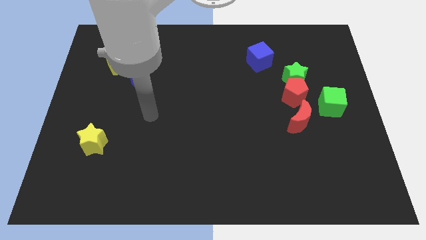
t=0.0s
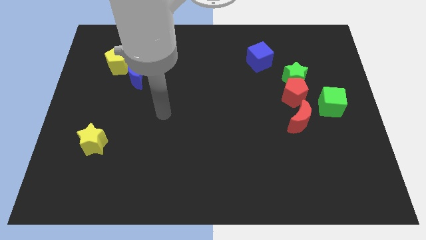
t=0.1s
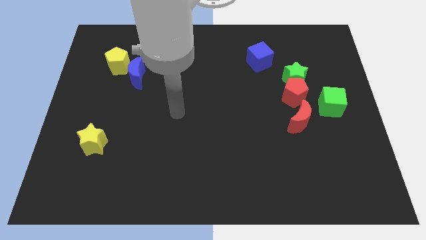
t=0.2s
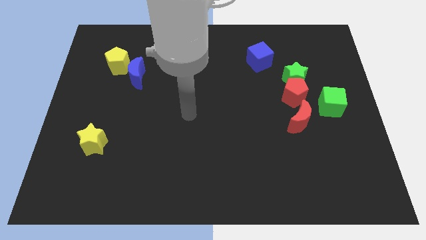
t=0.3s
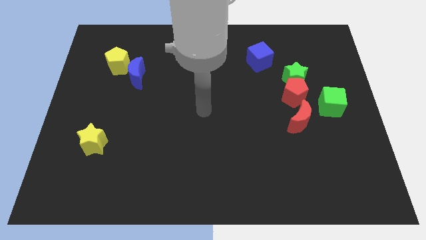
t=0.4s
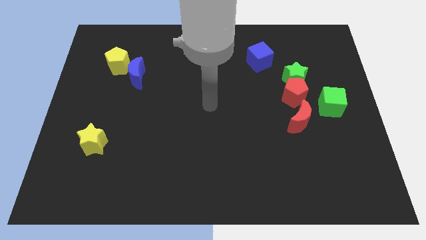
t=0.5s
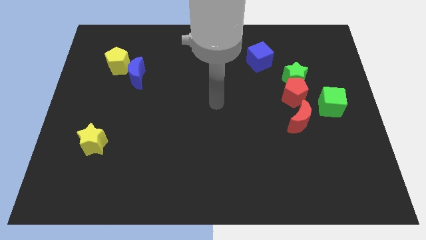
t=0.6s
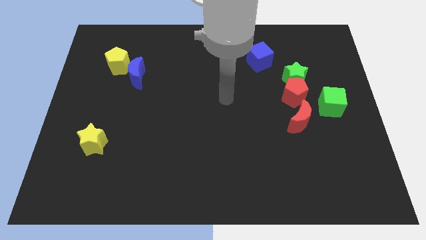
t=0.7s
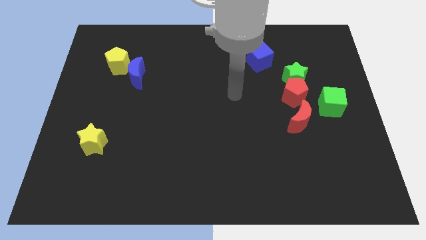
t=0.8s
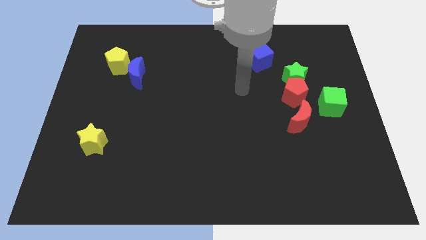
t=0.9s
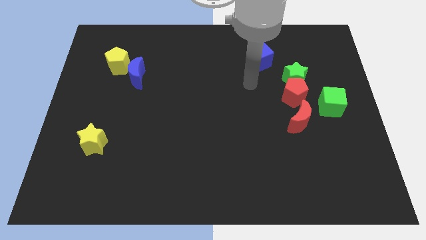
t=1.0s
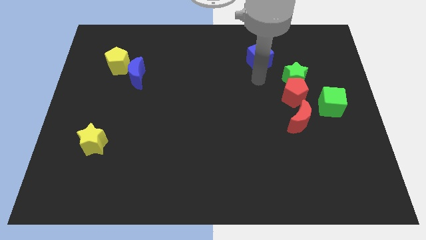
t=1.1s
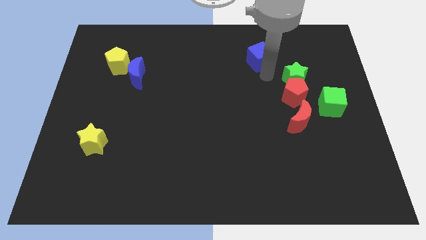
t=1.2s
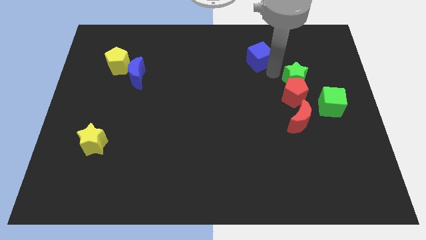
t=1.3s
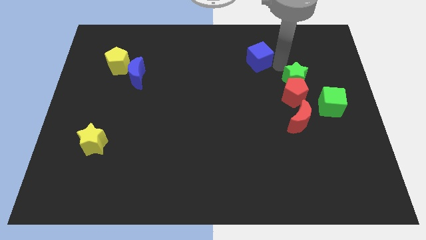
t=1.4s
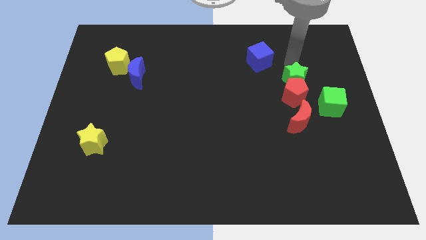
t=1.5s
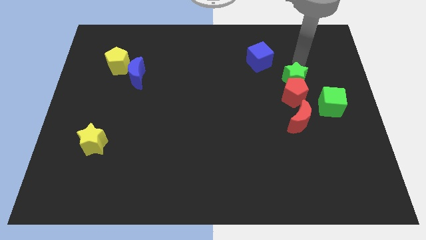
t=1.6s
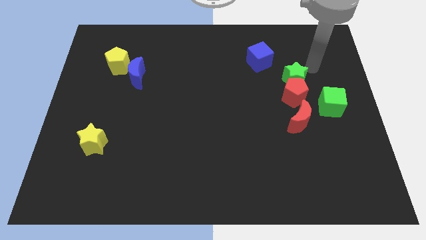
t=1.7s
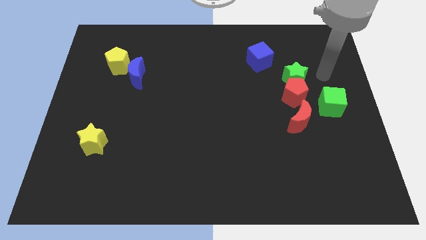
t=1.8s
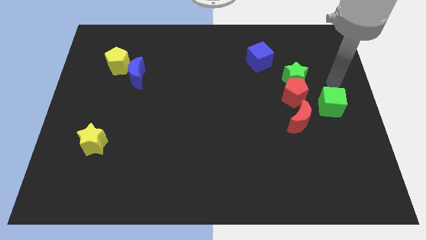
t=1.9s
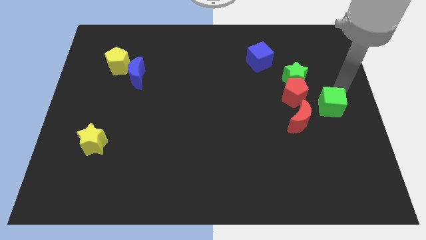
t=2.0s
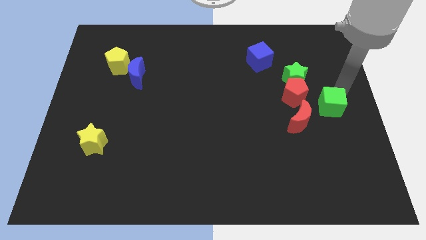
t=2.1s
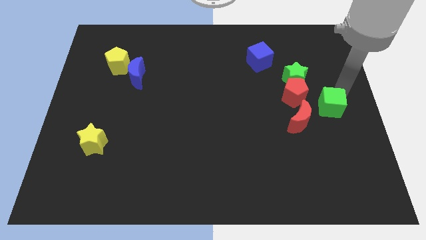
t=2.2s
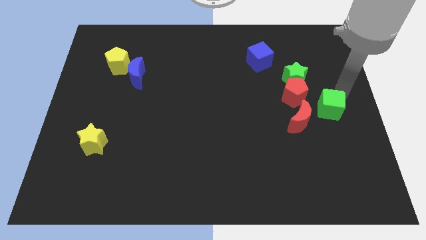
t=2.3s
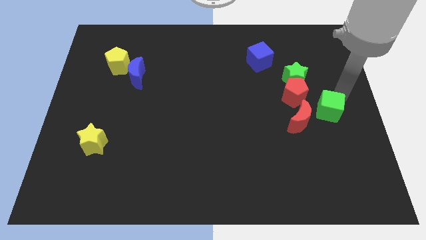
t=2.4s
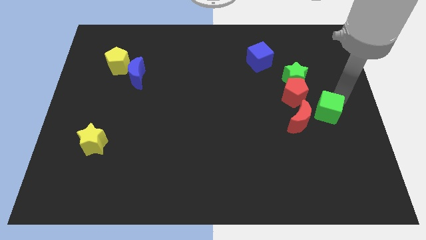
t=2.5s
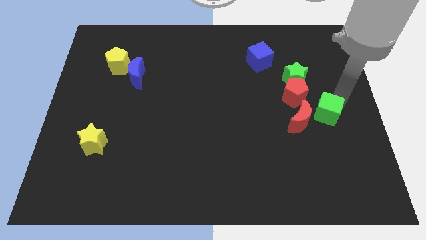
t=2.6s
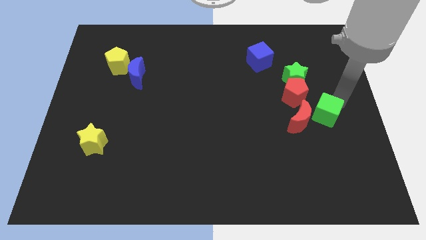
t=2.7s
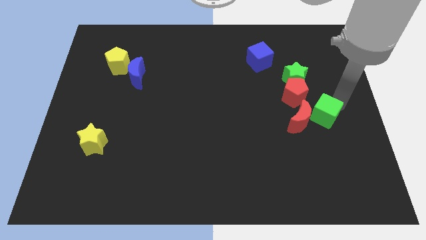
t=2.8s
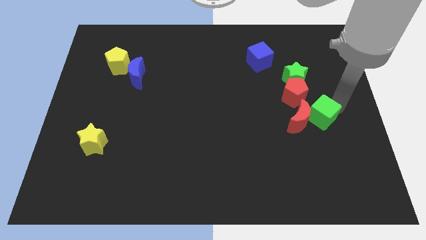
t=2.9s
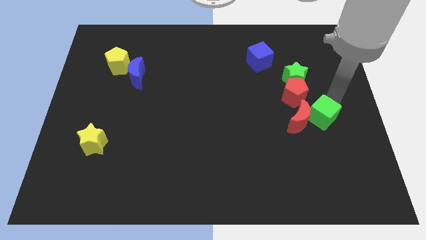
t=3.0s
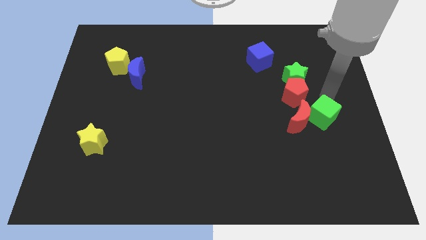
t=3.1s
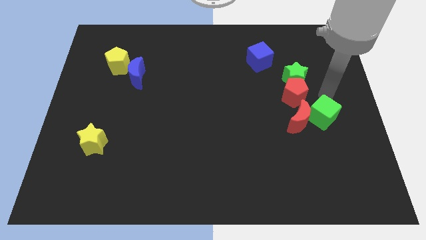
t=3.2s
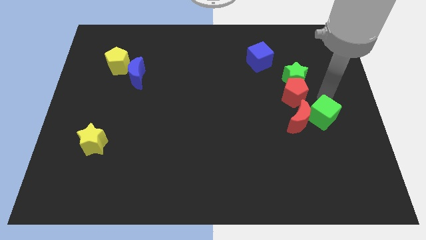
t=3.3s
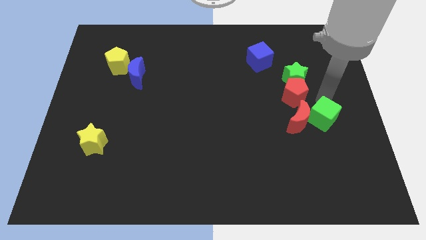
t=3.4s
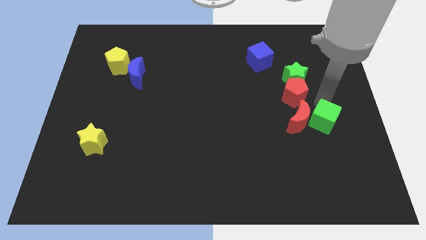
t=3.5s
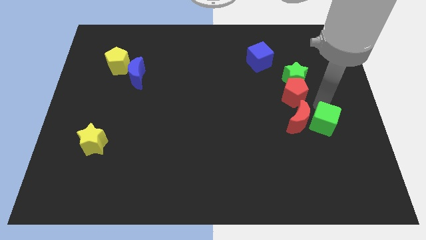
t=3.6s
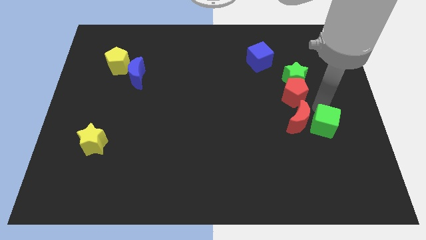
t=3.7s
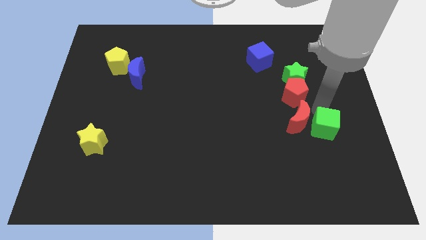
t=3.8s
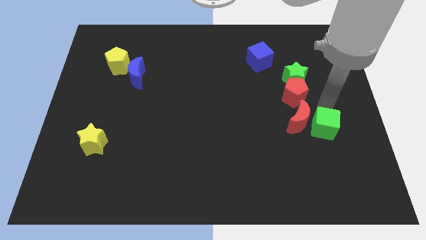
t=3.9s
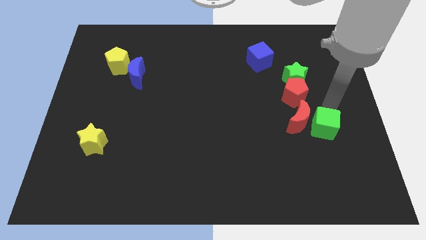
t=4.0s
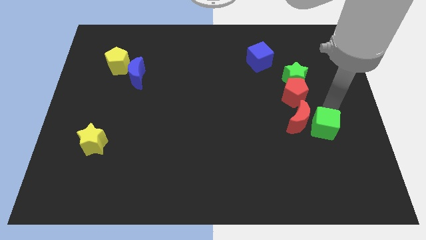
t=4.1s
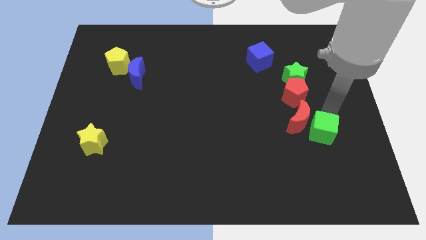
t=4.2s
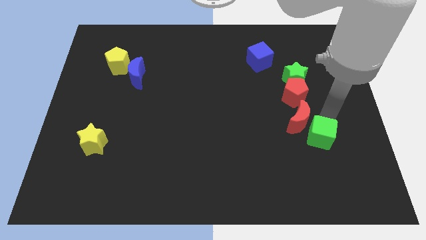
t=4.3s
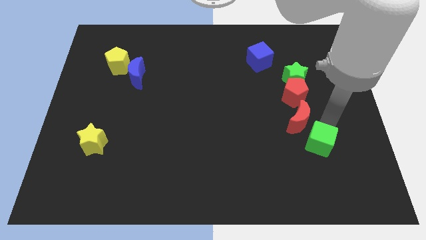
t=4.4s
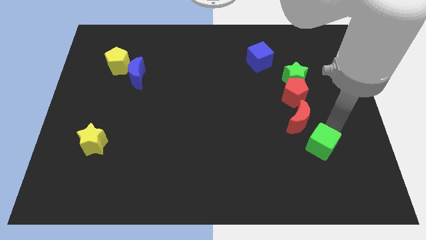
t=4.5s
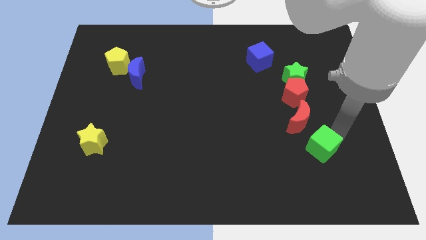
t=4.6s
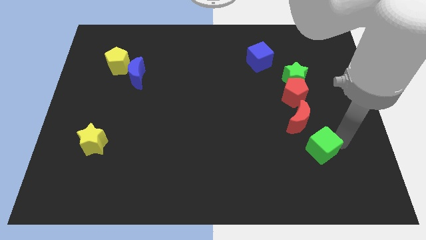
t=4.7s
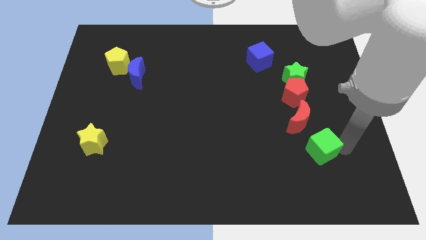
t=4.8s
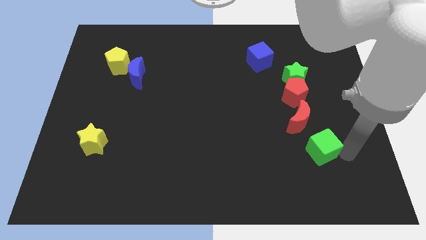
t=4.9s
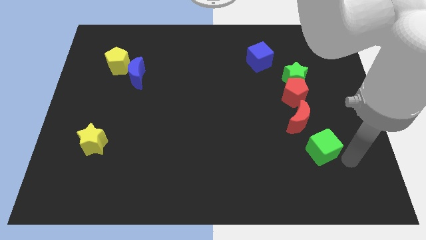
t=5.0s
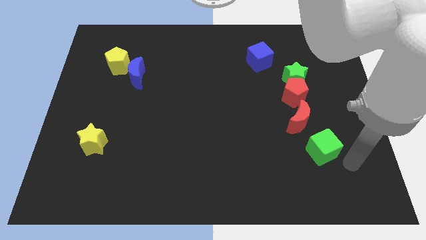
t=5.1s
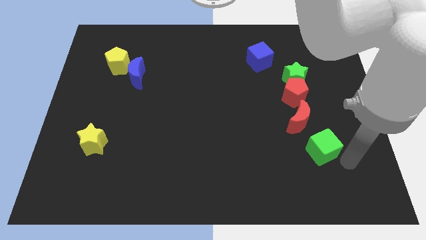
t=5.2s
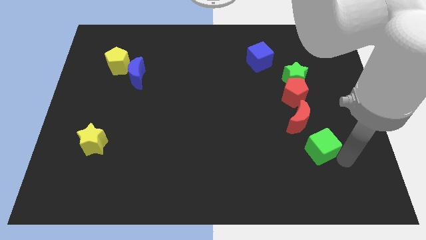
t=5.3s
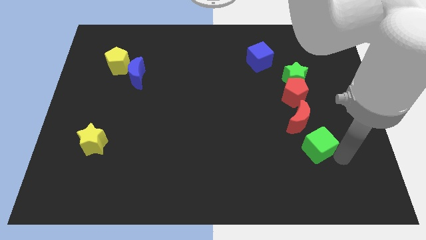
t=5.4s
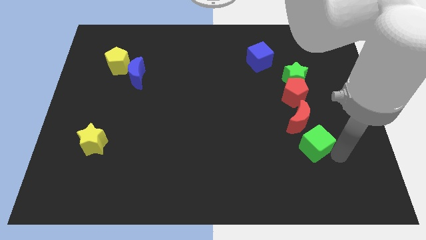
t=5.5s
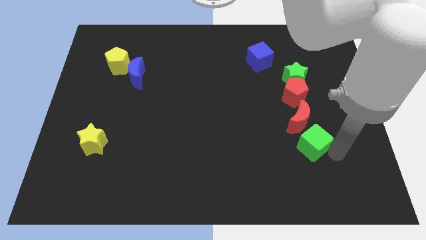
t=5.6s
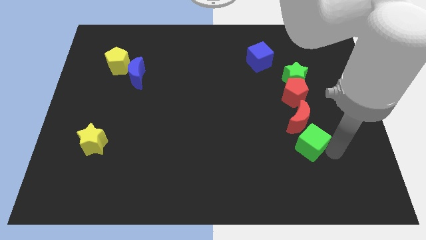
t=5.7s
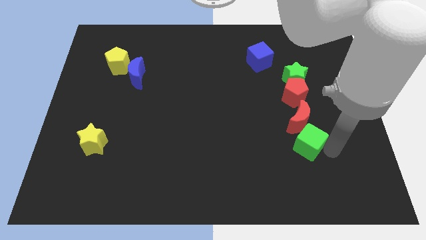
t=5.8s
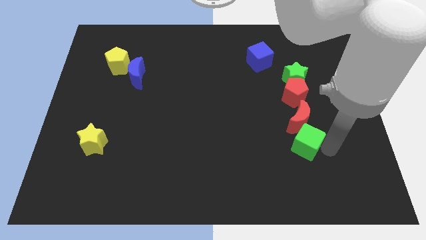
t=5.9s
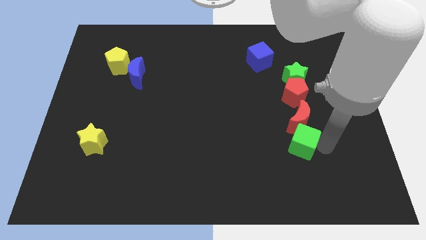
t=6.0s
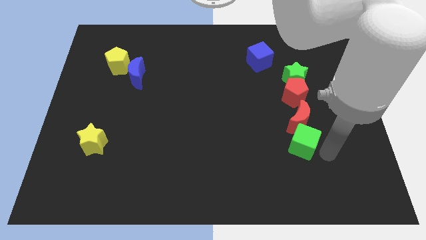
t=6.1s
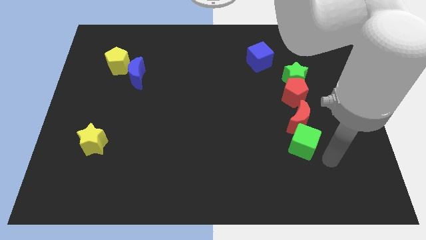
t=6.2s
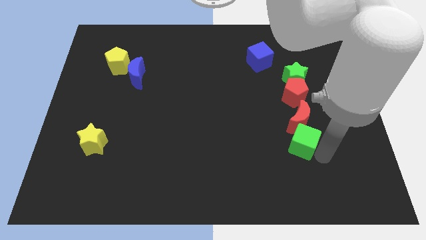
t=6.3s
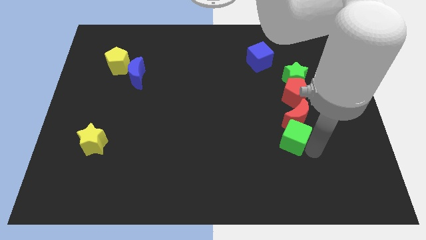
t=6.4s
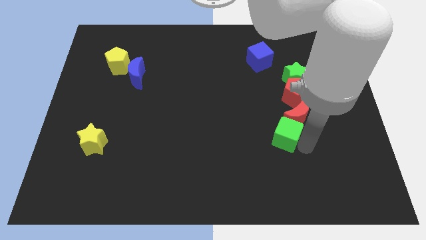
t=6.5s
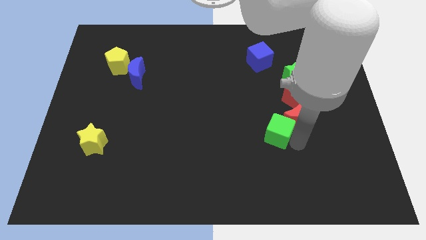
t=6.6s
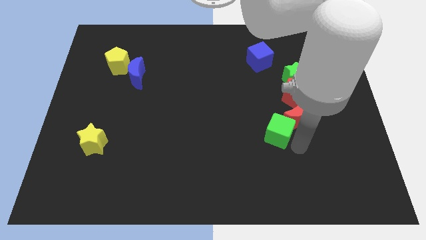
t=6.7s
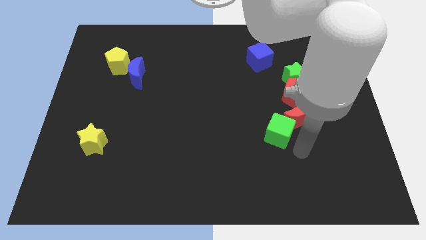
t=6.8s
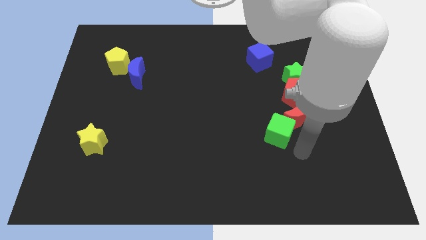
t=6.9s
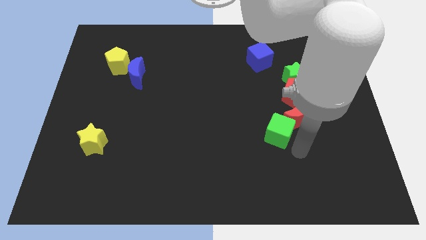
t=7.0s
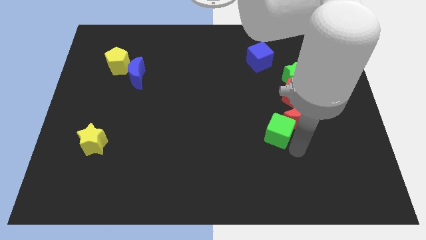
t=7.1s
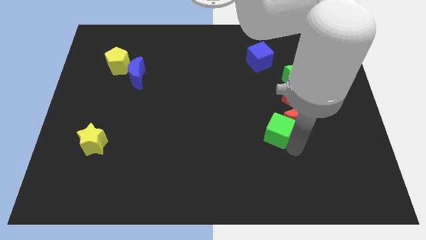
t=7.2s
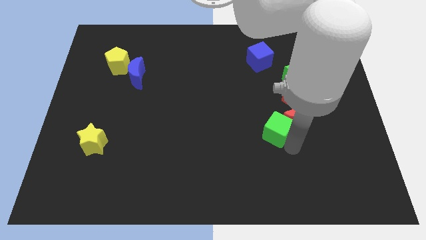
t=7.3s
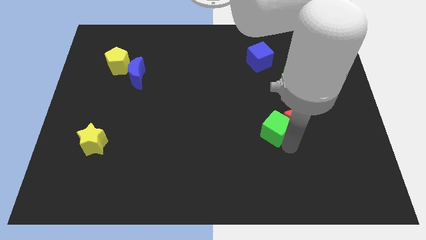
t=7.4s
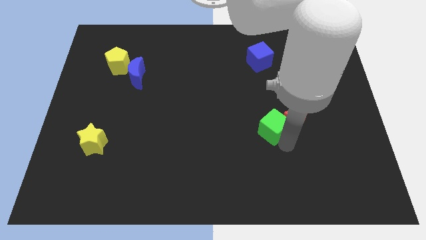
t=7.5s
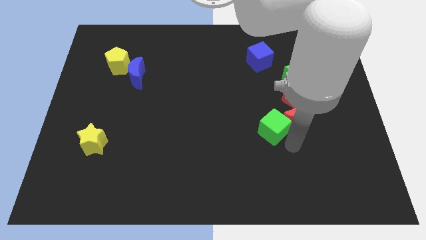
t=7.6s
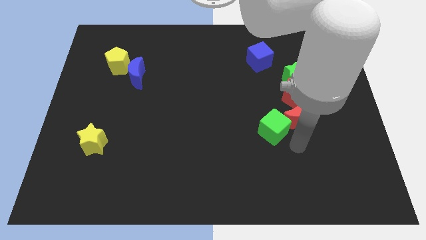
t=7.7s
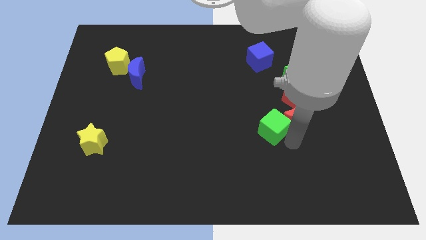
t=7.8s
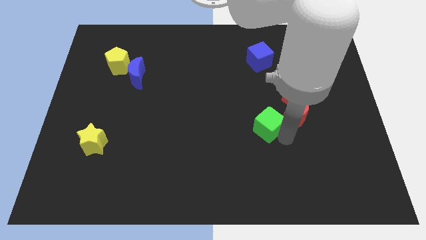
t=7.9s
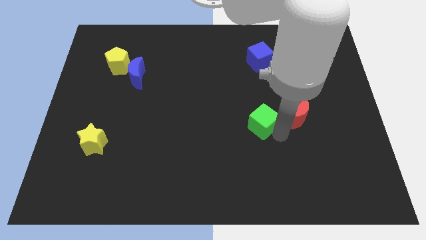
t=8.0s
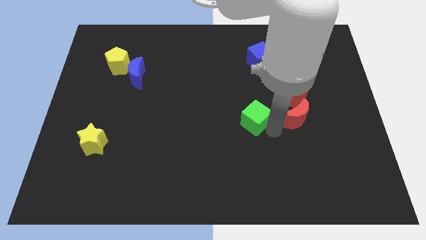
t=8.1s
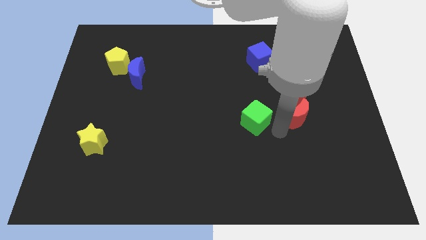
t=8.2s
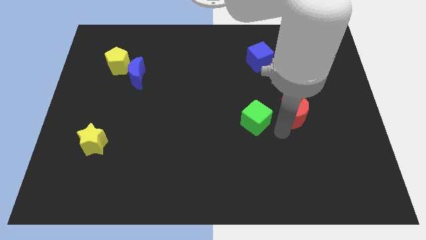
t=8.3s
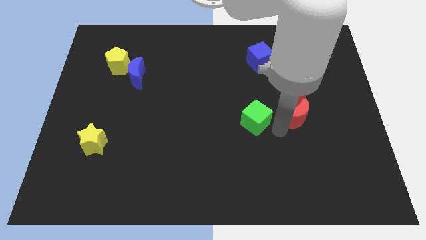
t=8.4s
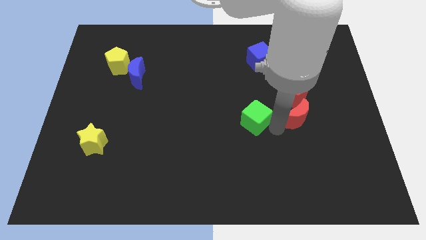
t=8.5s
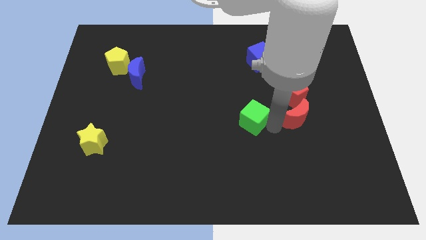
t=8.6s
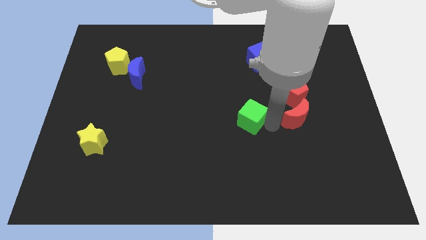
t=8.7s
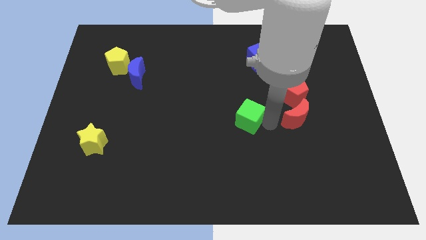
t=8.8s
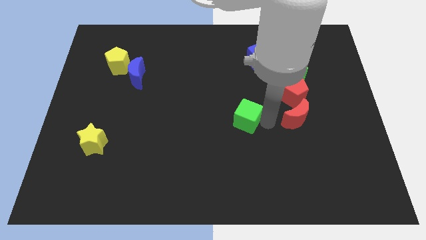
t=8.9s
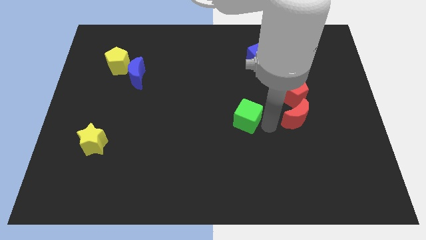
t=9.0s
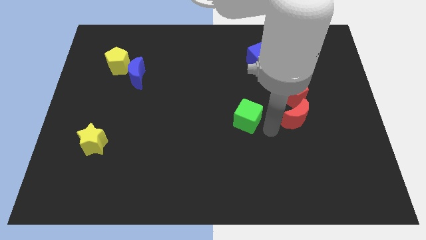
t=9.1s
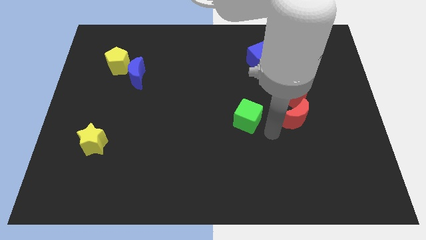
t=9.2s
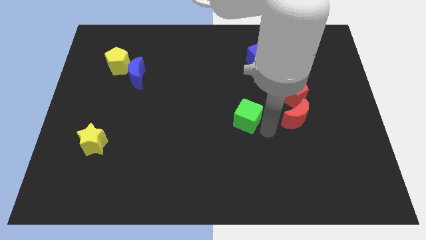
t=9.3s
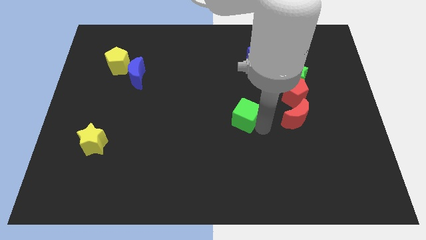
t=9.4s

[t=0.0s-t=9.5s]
slide the green cube to the left
